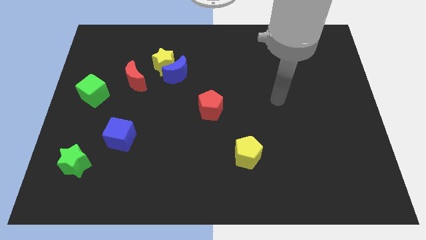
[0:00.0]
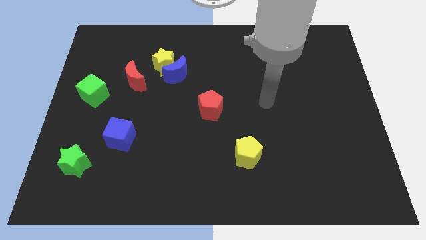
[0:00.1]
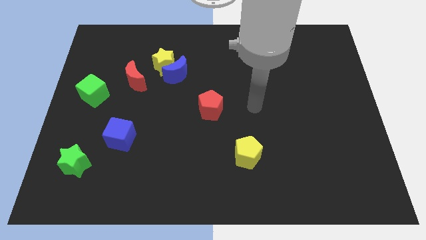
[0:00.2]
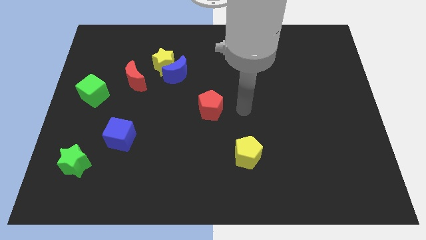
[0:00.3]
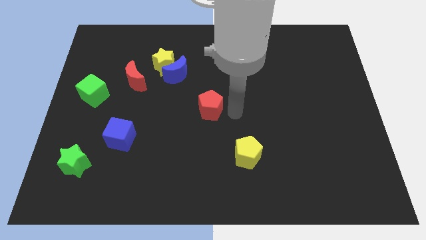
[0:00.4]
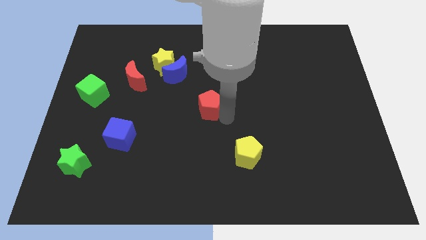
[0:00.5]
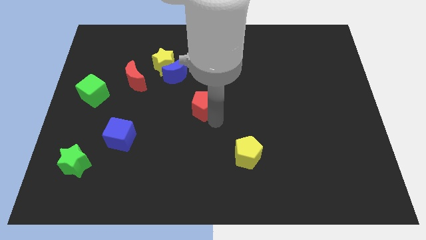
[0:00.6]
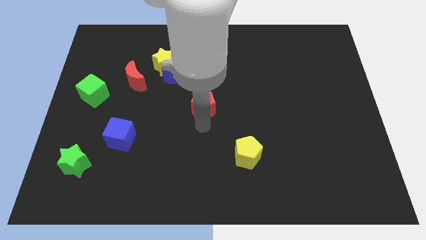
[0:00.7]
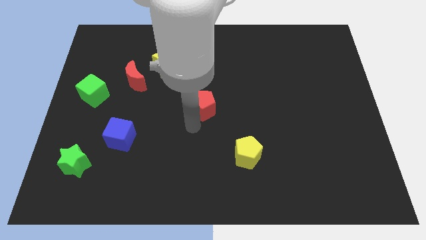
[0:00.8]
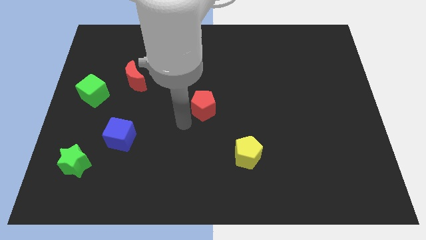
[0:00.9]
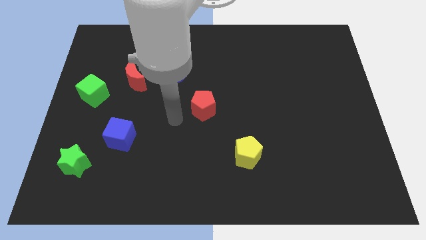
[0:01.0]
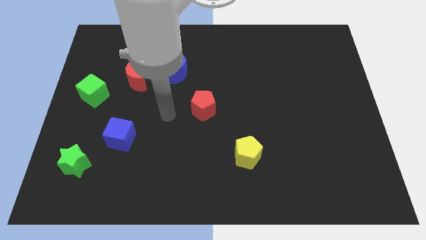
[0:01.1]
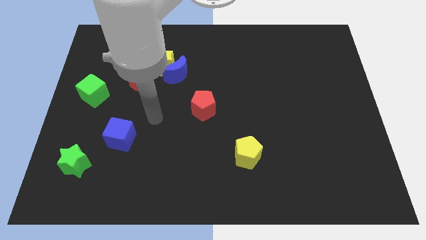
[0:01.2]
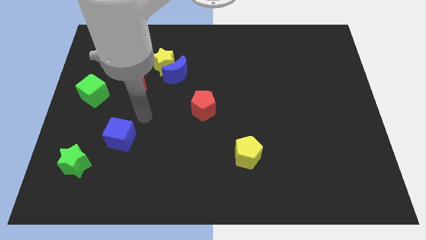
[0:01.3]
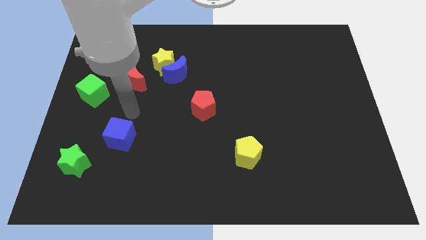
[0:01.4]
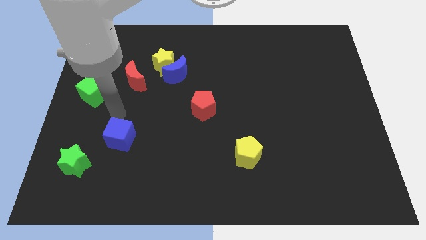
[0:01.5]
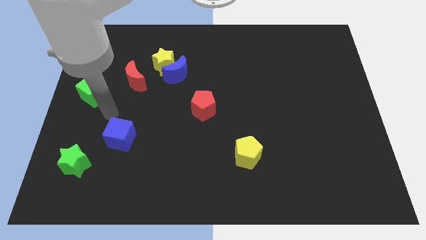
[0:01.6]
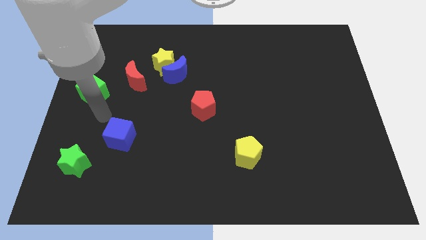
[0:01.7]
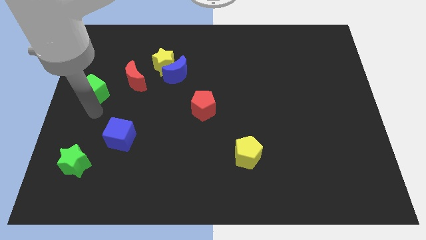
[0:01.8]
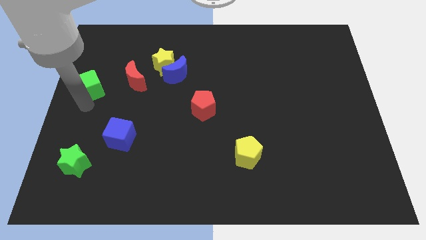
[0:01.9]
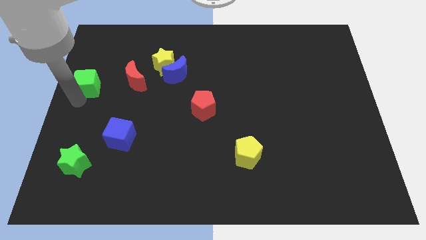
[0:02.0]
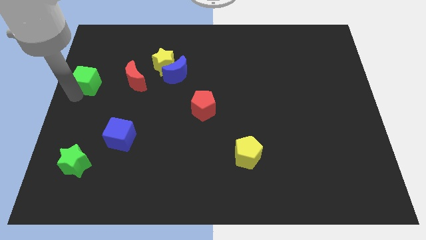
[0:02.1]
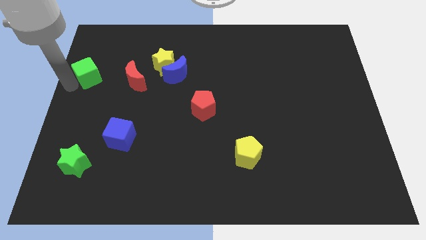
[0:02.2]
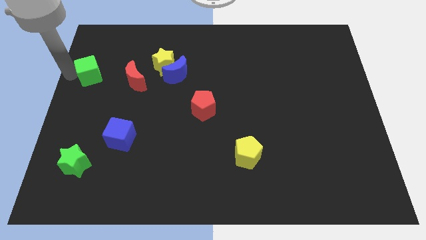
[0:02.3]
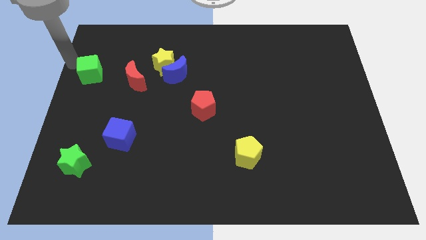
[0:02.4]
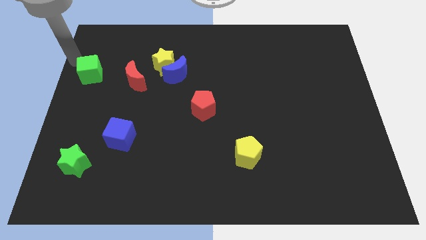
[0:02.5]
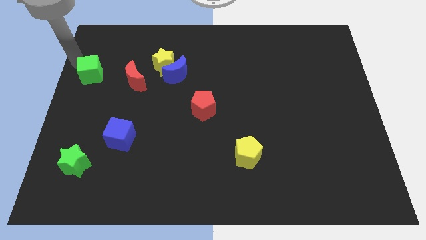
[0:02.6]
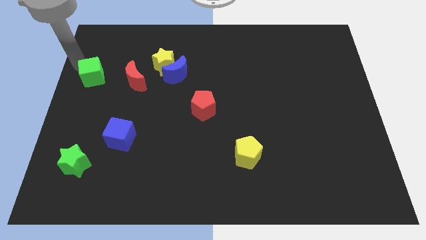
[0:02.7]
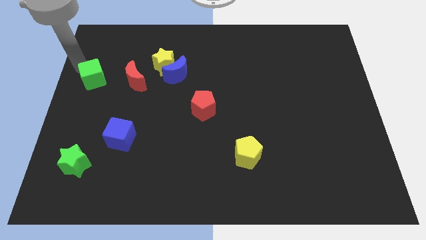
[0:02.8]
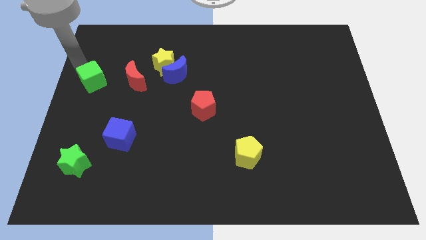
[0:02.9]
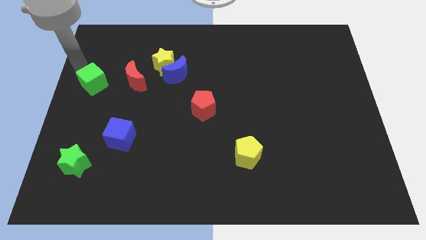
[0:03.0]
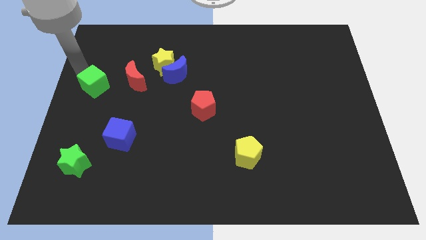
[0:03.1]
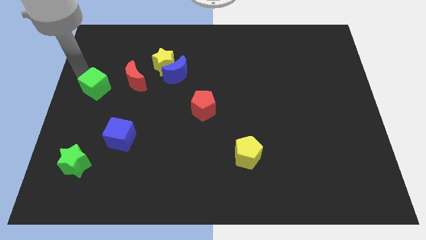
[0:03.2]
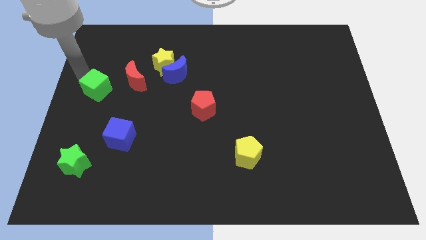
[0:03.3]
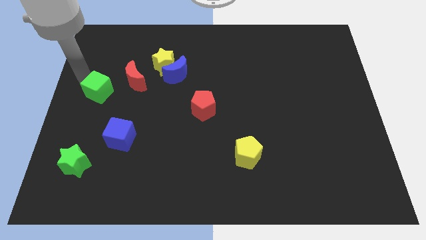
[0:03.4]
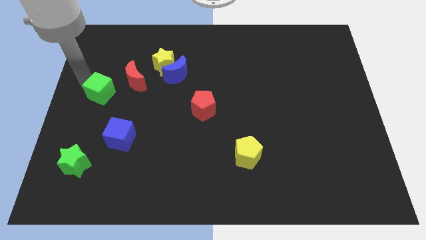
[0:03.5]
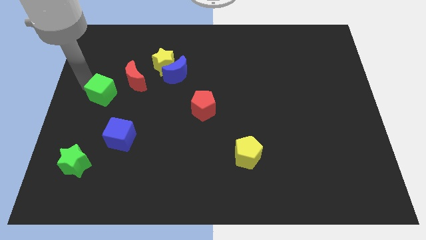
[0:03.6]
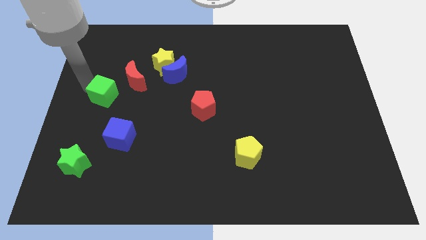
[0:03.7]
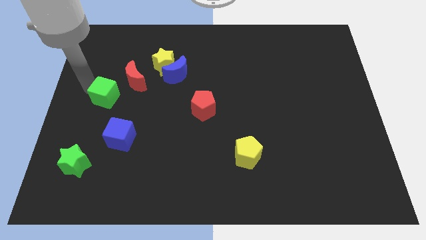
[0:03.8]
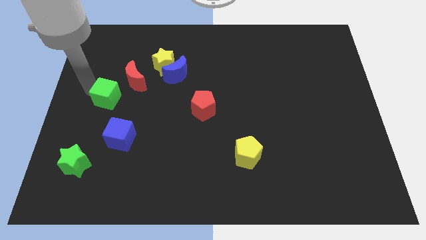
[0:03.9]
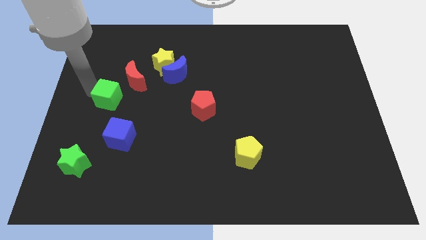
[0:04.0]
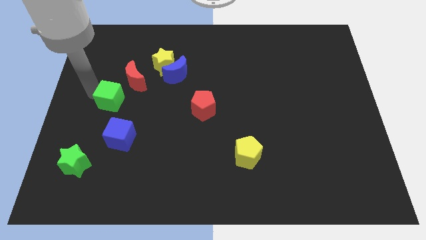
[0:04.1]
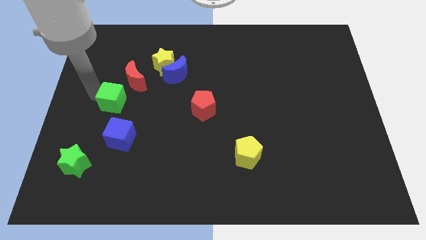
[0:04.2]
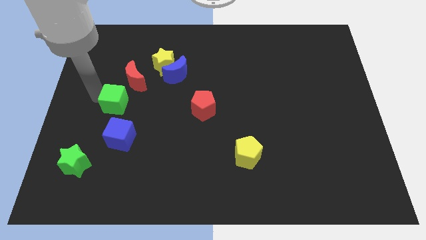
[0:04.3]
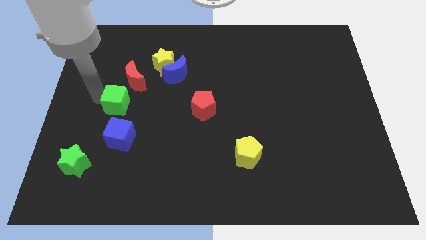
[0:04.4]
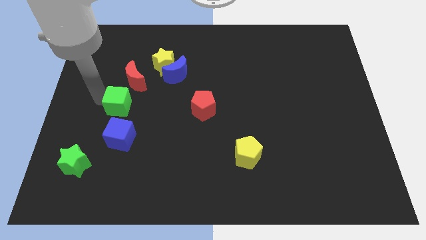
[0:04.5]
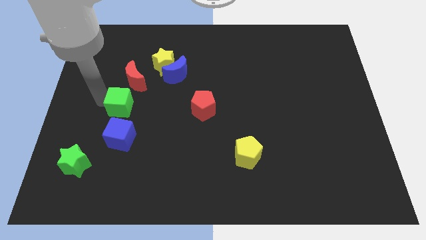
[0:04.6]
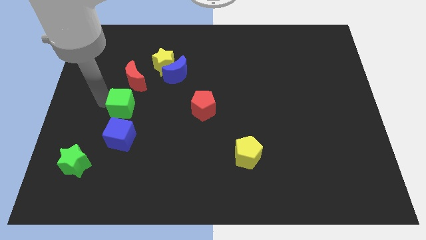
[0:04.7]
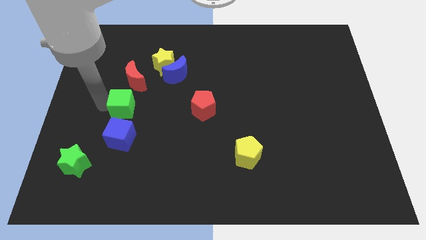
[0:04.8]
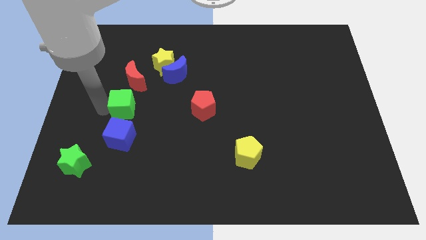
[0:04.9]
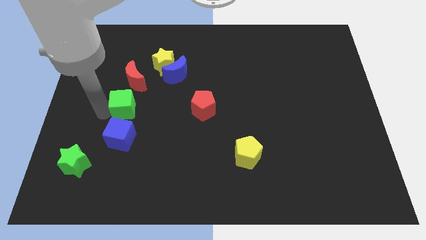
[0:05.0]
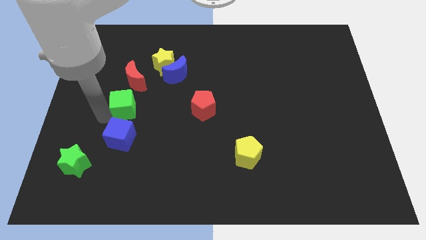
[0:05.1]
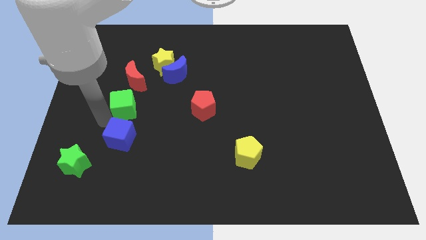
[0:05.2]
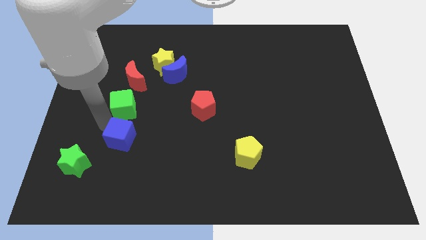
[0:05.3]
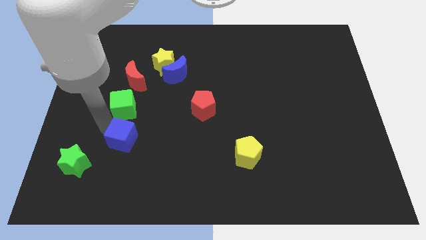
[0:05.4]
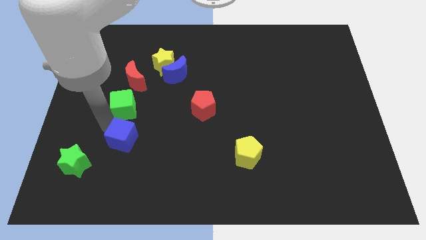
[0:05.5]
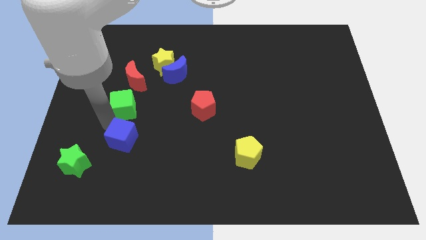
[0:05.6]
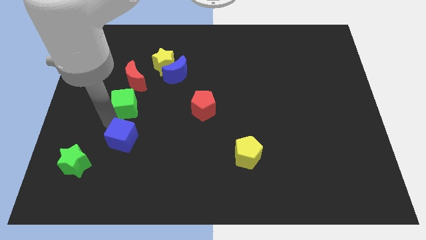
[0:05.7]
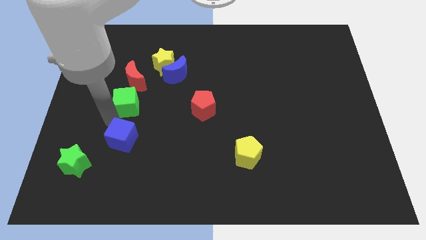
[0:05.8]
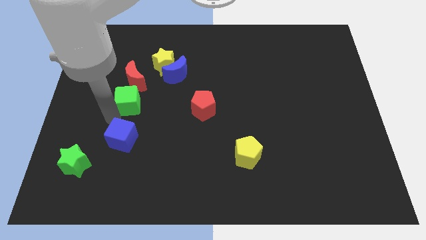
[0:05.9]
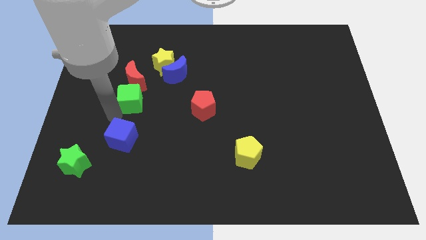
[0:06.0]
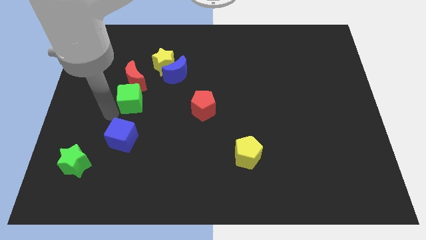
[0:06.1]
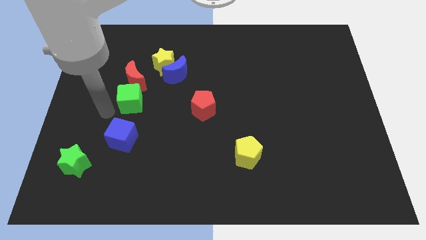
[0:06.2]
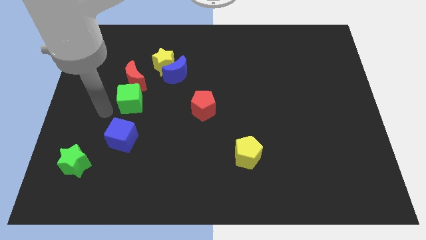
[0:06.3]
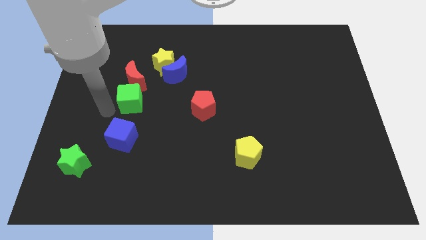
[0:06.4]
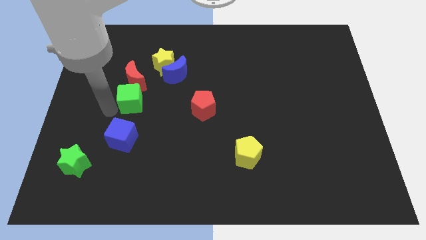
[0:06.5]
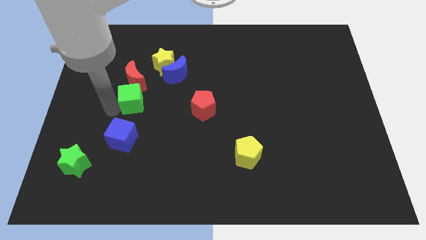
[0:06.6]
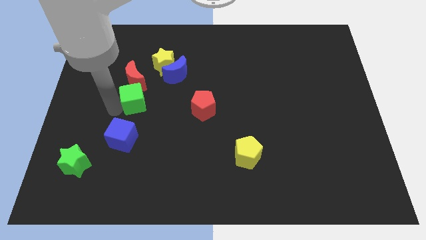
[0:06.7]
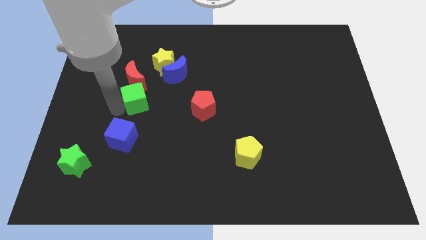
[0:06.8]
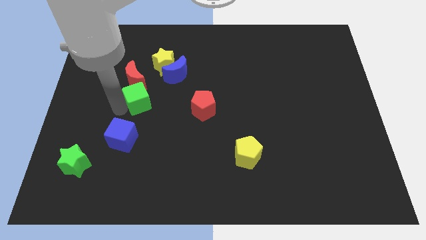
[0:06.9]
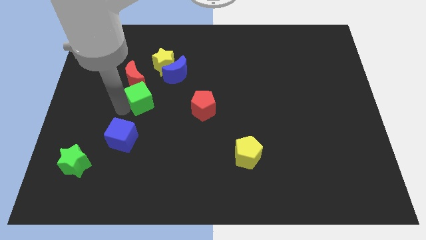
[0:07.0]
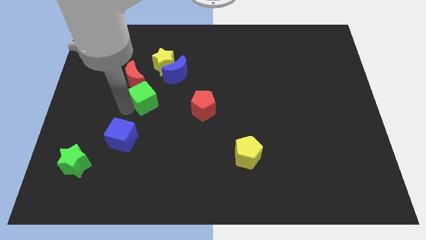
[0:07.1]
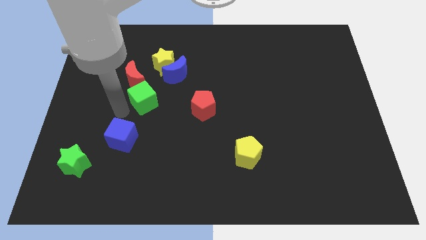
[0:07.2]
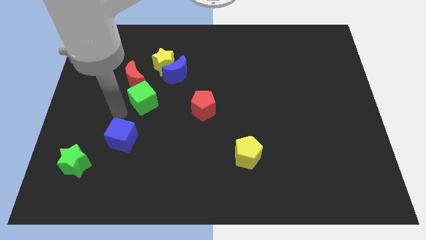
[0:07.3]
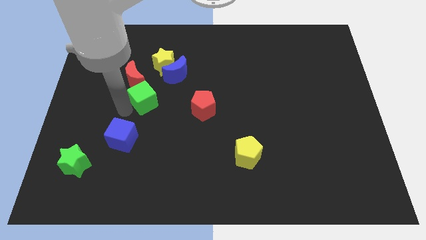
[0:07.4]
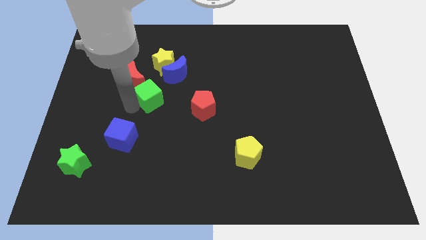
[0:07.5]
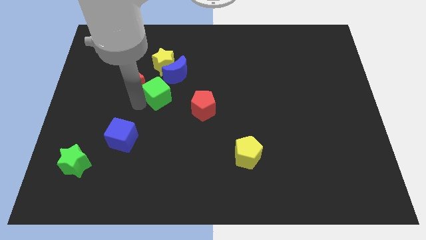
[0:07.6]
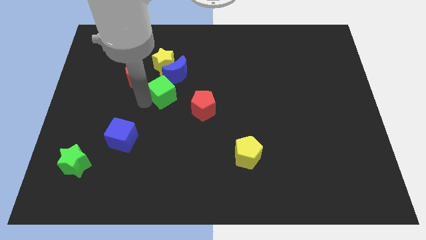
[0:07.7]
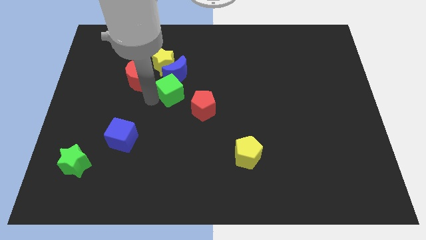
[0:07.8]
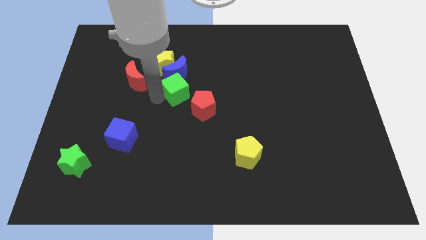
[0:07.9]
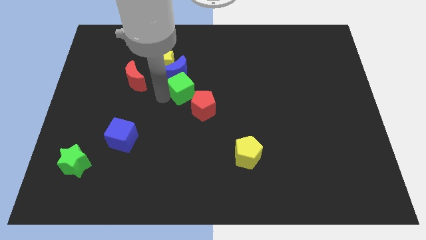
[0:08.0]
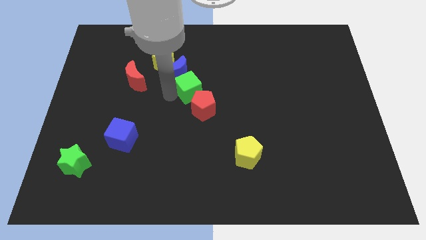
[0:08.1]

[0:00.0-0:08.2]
put the green cube to the top of the red pentagon
